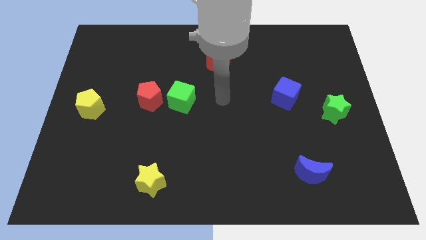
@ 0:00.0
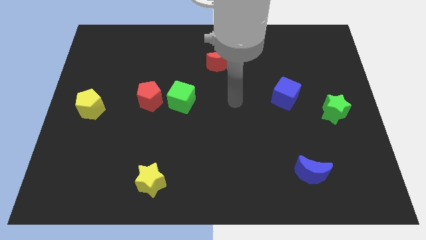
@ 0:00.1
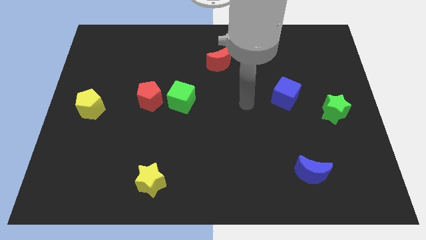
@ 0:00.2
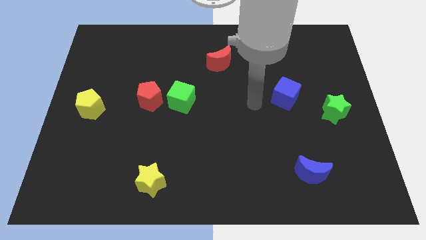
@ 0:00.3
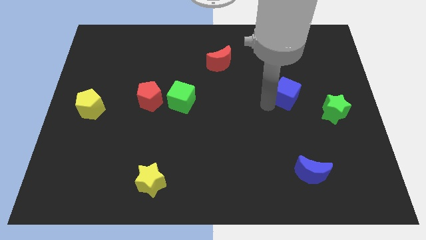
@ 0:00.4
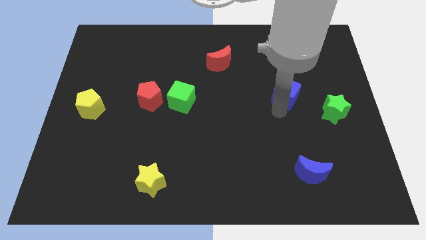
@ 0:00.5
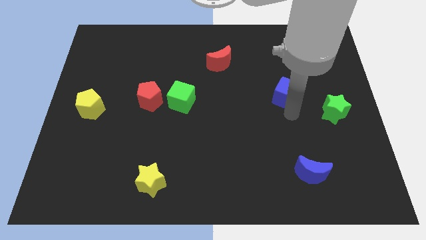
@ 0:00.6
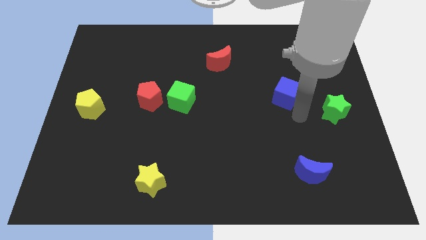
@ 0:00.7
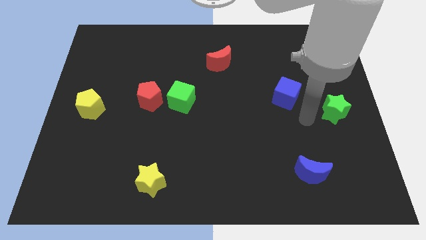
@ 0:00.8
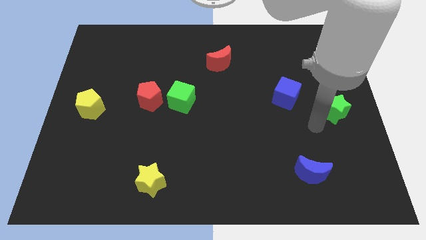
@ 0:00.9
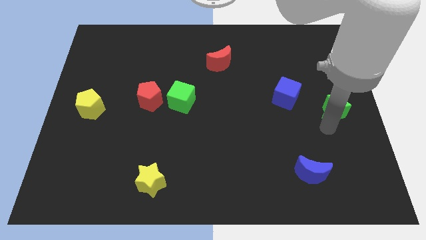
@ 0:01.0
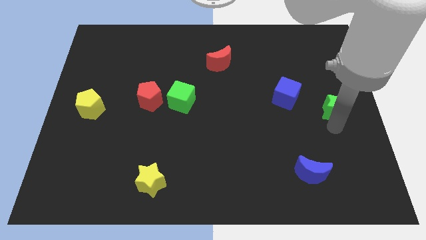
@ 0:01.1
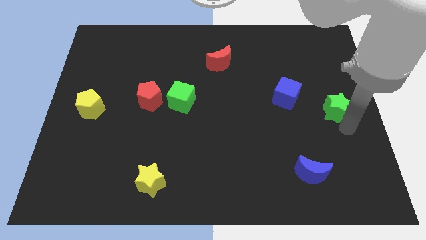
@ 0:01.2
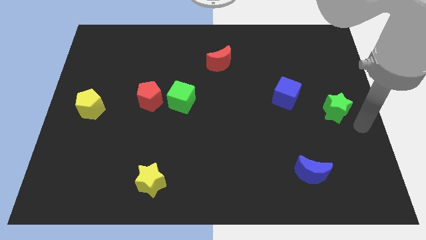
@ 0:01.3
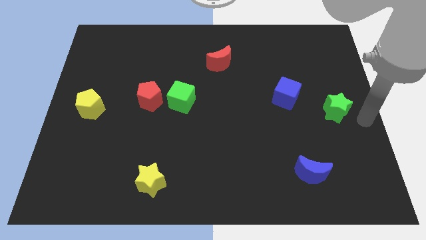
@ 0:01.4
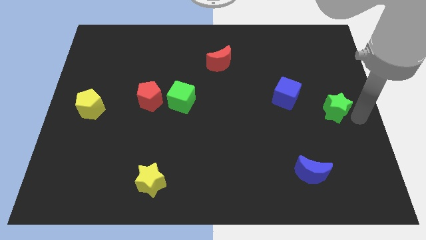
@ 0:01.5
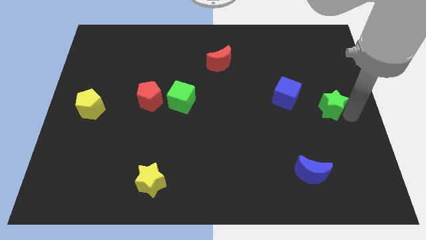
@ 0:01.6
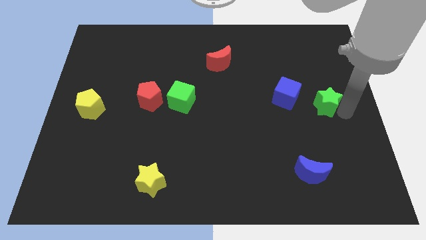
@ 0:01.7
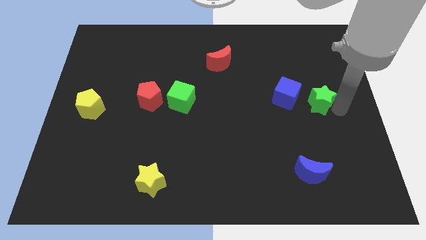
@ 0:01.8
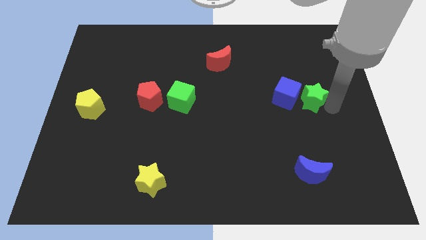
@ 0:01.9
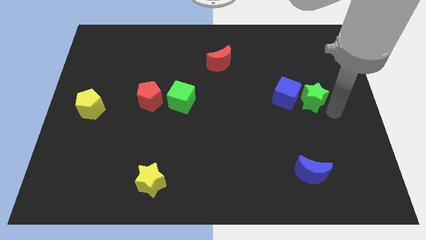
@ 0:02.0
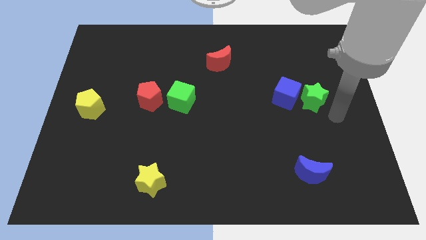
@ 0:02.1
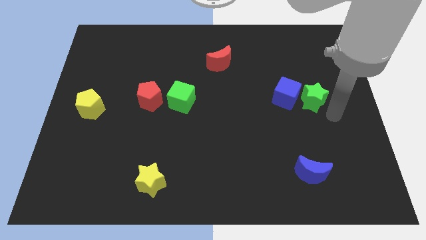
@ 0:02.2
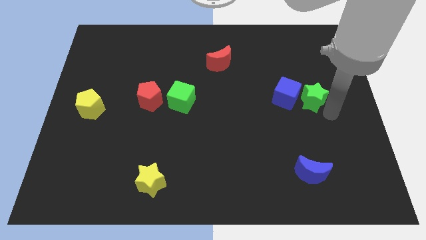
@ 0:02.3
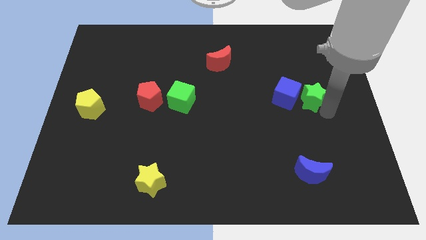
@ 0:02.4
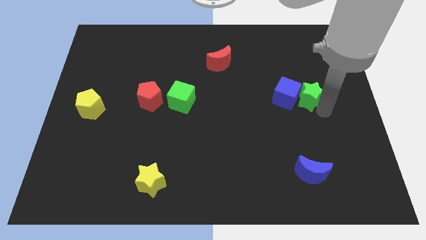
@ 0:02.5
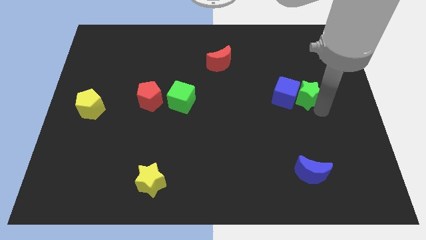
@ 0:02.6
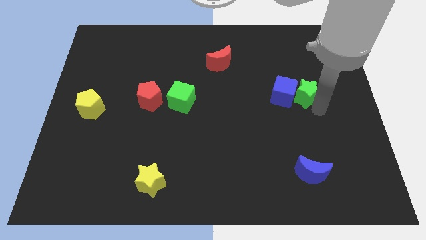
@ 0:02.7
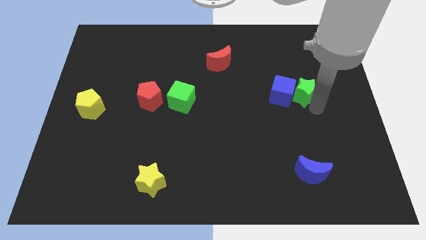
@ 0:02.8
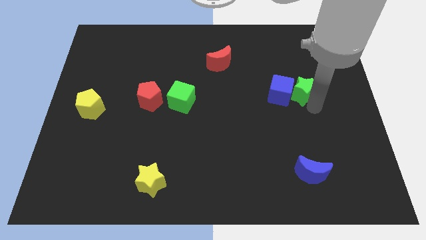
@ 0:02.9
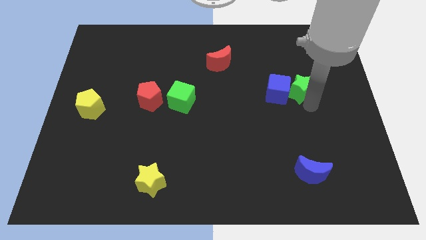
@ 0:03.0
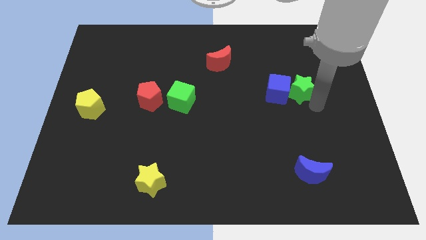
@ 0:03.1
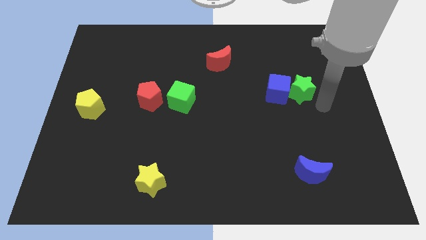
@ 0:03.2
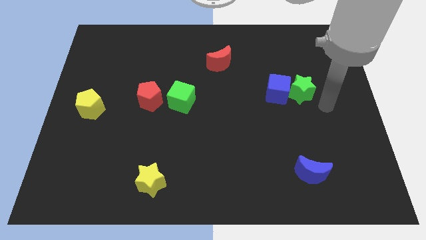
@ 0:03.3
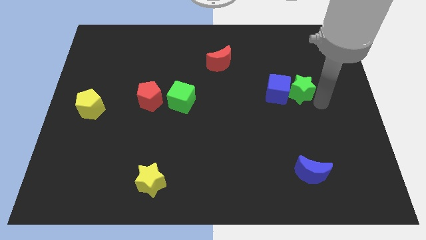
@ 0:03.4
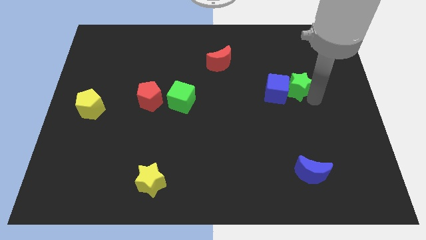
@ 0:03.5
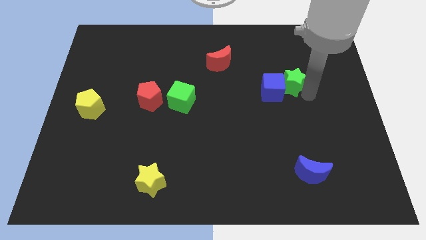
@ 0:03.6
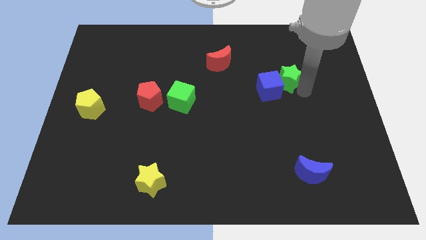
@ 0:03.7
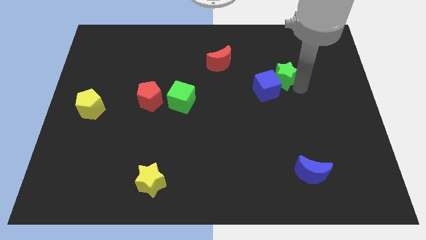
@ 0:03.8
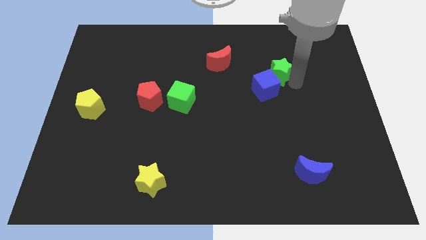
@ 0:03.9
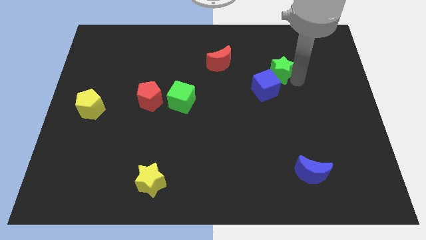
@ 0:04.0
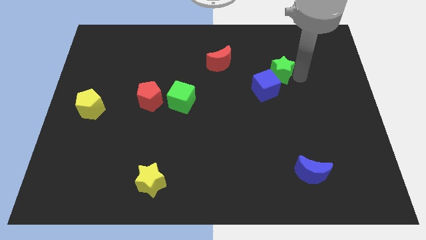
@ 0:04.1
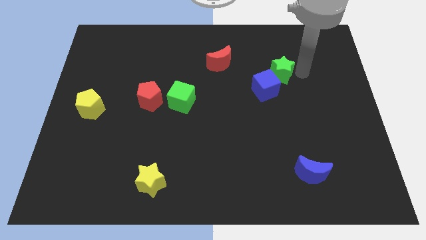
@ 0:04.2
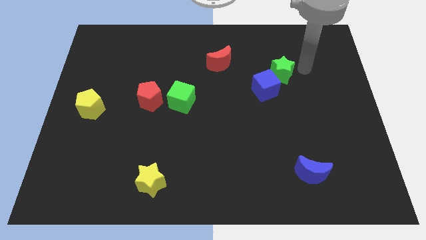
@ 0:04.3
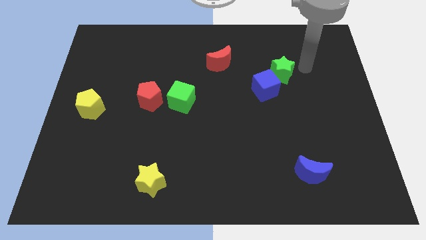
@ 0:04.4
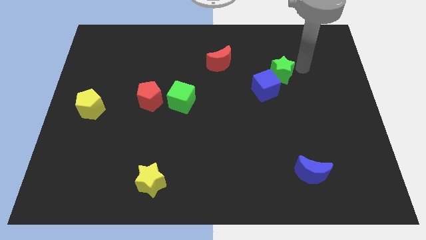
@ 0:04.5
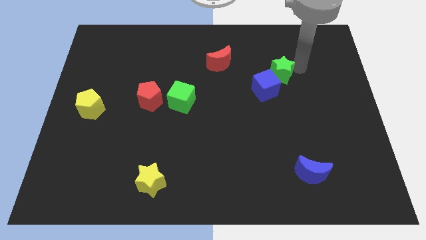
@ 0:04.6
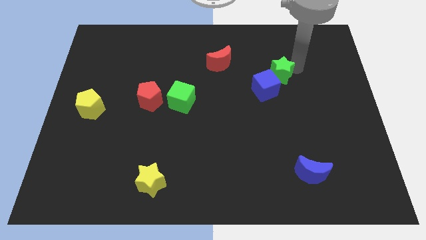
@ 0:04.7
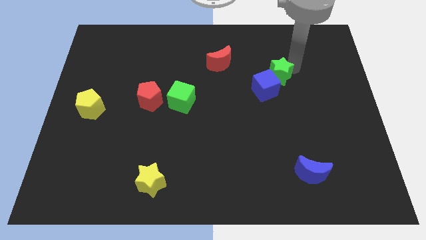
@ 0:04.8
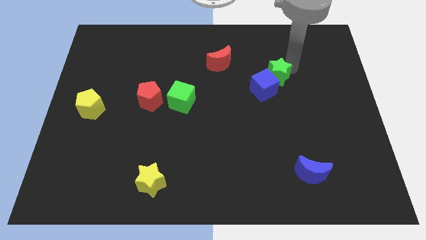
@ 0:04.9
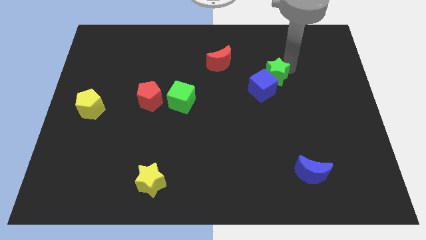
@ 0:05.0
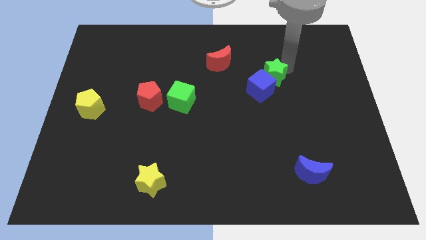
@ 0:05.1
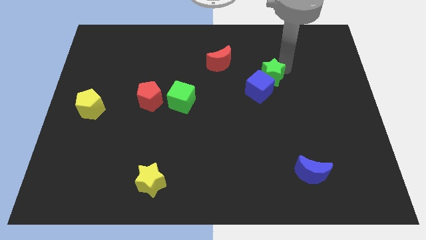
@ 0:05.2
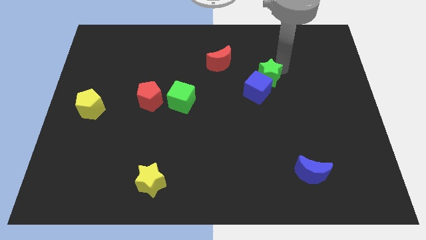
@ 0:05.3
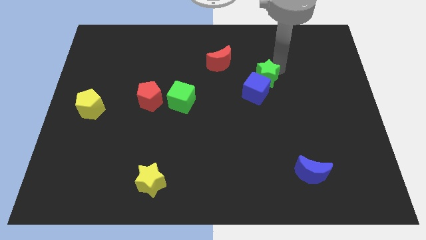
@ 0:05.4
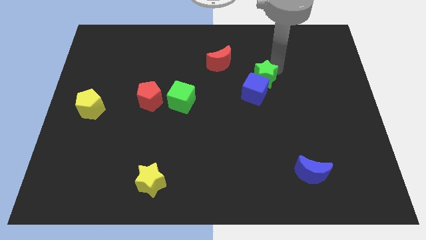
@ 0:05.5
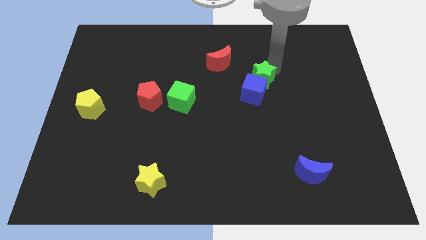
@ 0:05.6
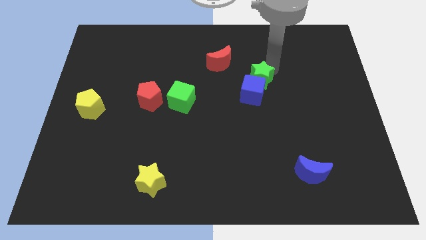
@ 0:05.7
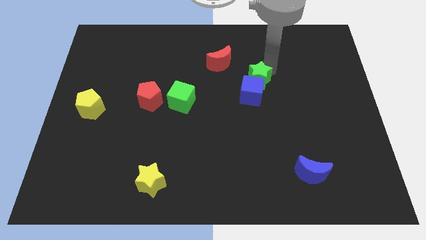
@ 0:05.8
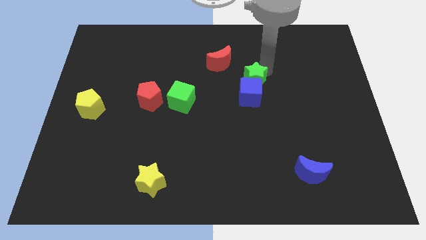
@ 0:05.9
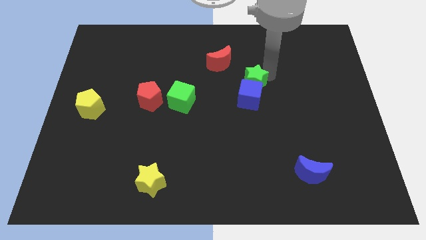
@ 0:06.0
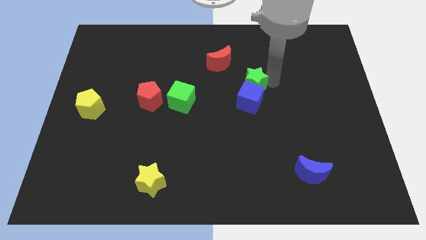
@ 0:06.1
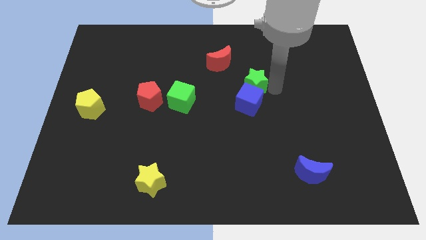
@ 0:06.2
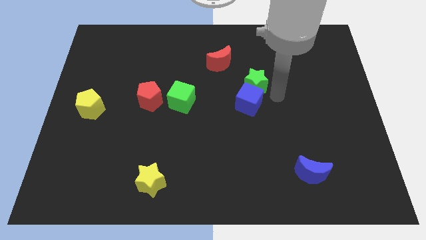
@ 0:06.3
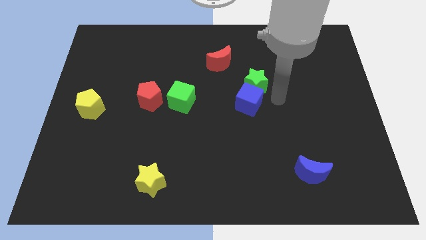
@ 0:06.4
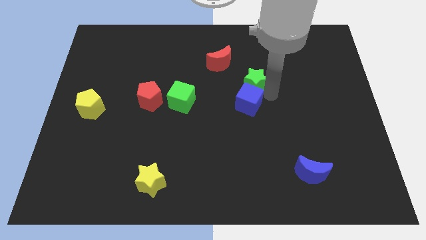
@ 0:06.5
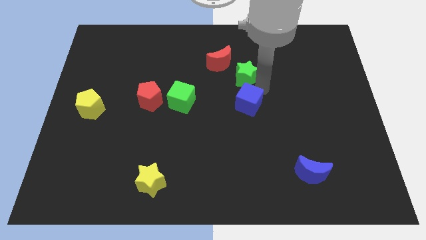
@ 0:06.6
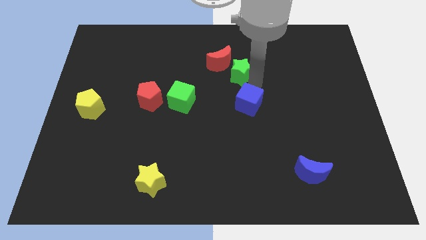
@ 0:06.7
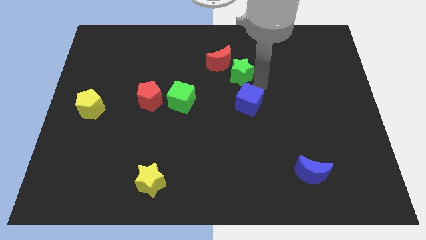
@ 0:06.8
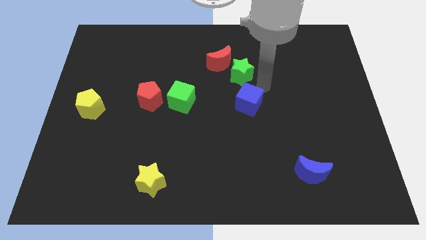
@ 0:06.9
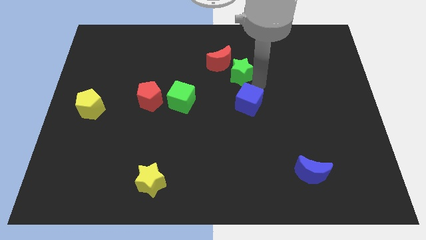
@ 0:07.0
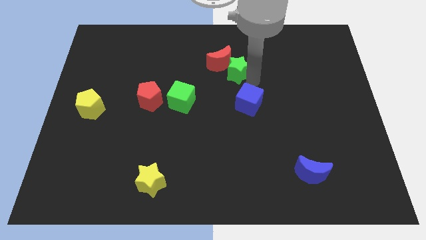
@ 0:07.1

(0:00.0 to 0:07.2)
push the green star towards the red moon

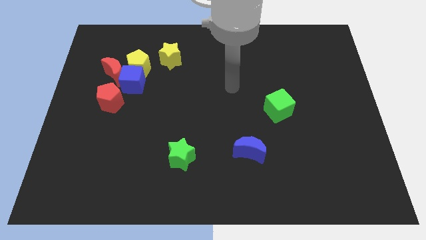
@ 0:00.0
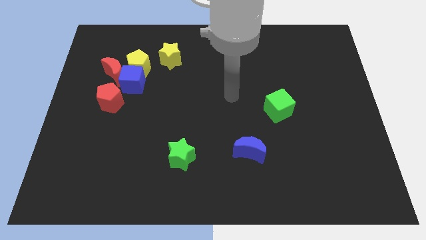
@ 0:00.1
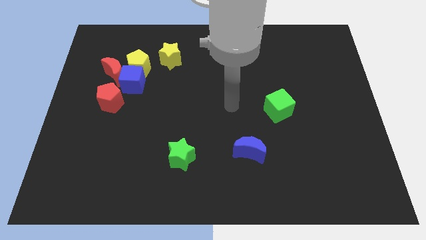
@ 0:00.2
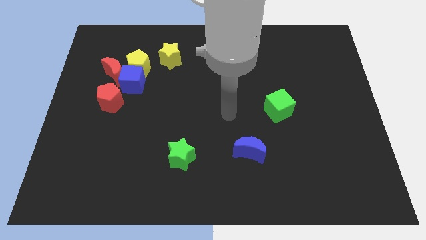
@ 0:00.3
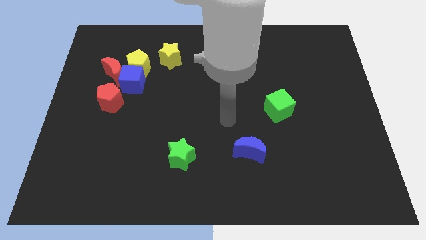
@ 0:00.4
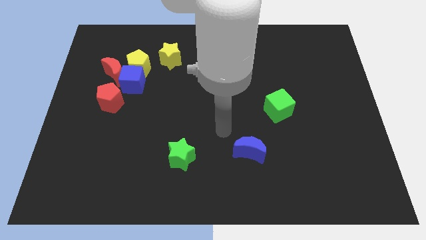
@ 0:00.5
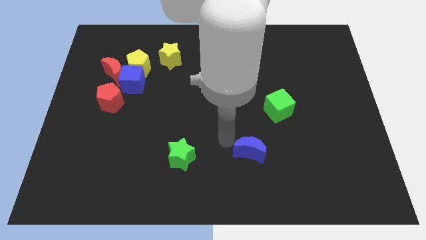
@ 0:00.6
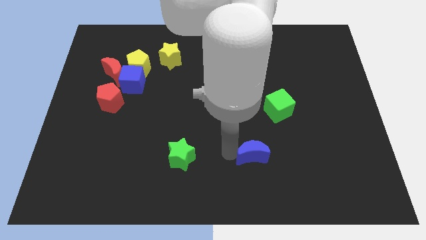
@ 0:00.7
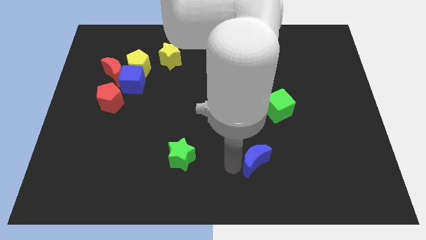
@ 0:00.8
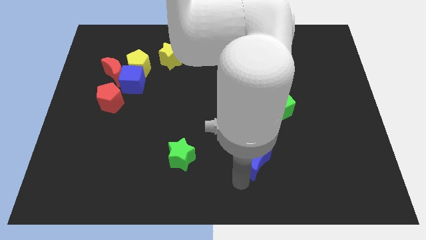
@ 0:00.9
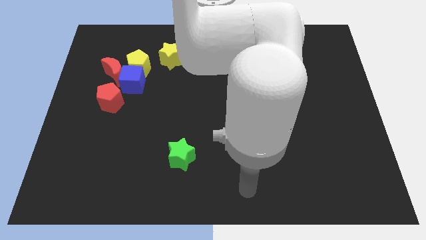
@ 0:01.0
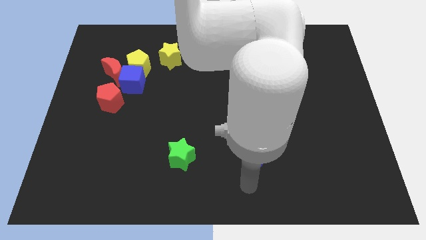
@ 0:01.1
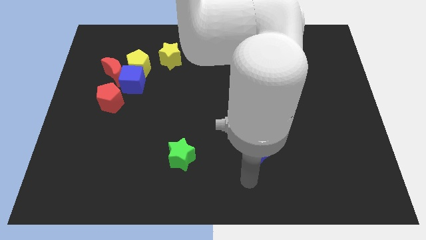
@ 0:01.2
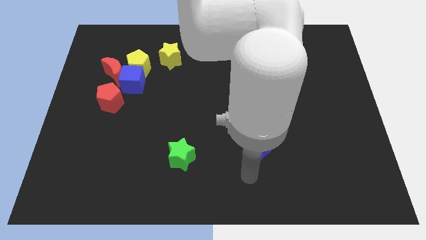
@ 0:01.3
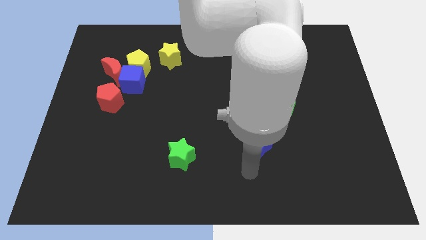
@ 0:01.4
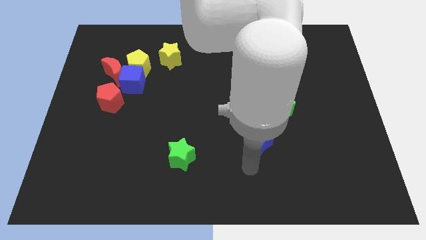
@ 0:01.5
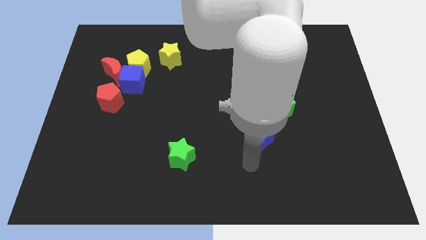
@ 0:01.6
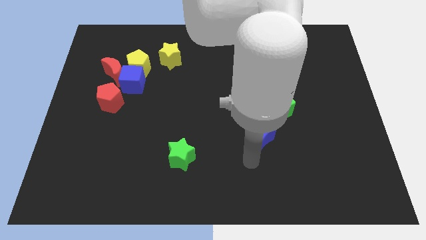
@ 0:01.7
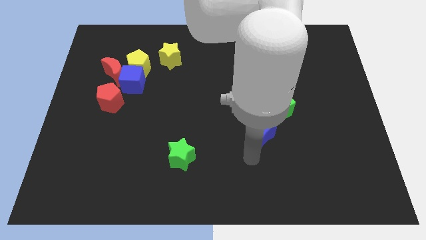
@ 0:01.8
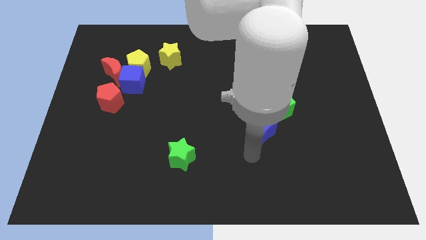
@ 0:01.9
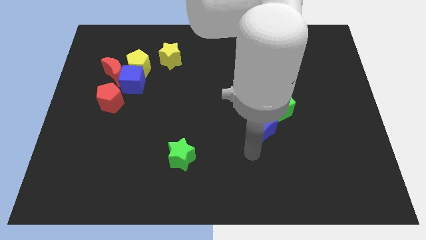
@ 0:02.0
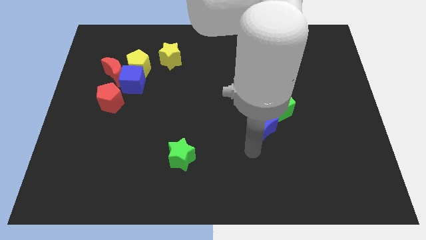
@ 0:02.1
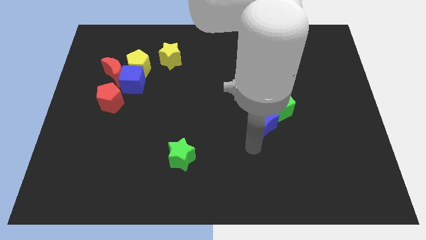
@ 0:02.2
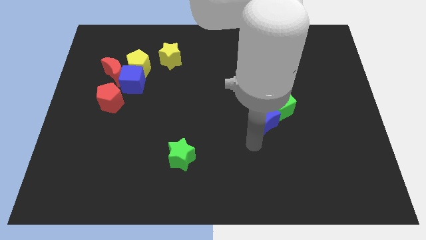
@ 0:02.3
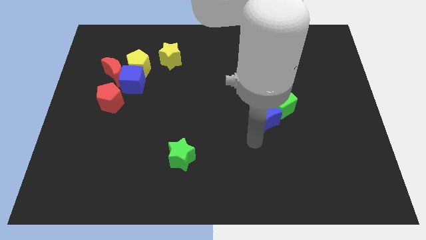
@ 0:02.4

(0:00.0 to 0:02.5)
push the blue moon close to the green cube
